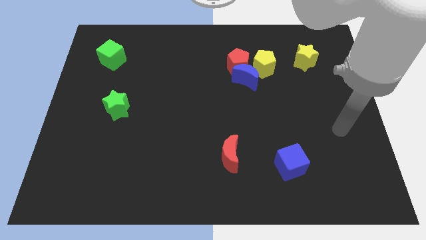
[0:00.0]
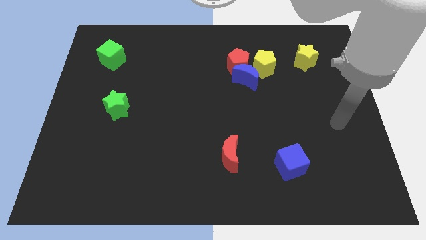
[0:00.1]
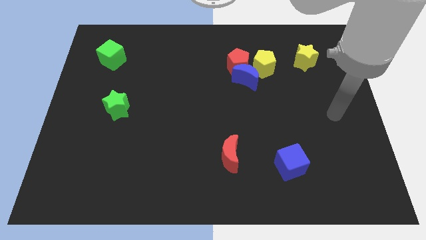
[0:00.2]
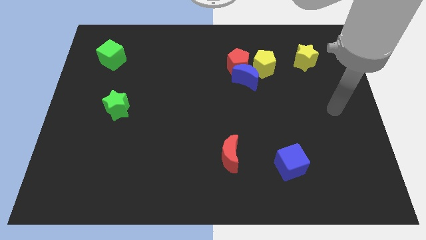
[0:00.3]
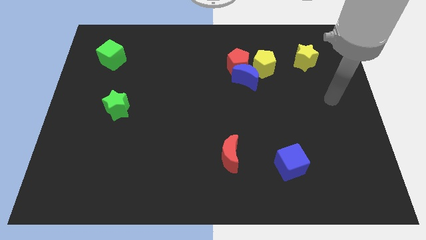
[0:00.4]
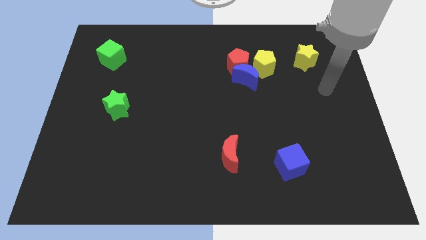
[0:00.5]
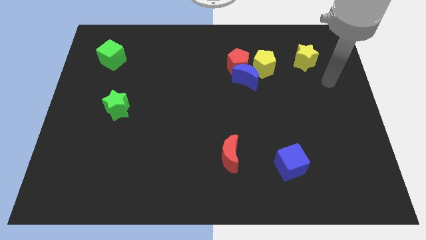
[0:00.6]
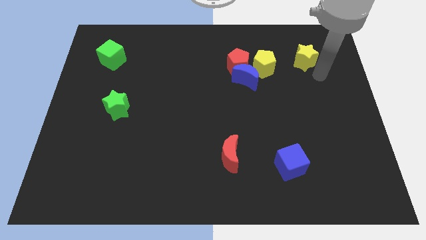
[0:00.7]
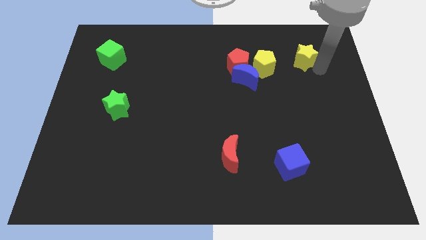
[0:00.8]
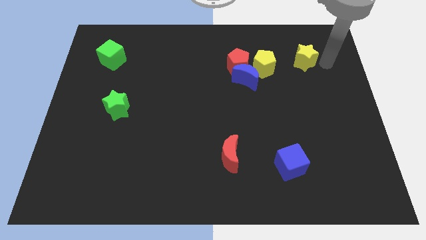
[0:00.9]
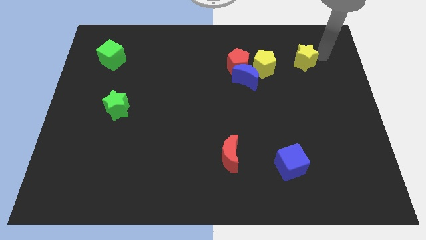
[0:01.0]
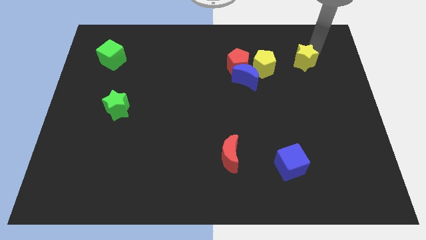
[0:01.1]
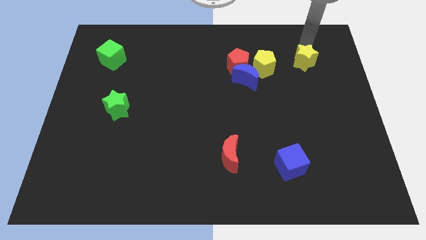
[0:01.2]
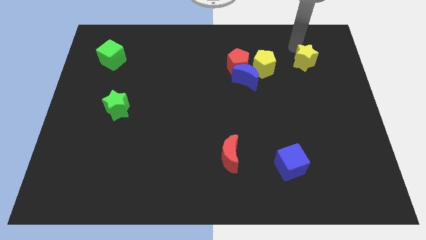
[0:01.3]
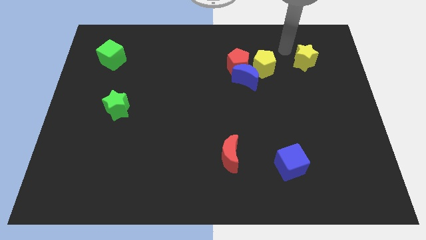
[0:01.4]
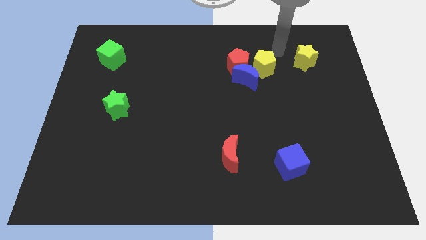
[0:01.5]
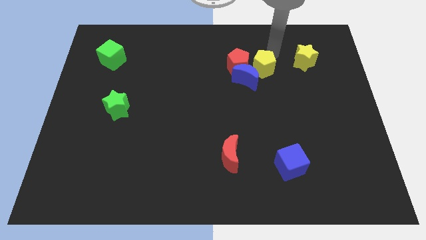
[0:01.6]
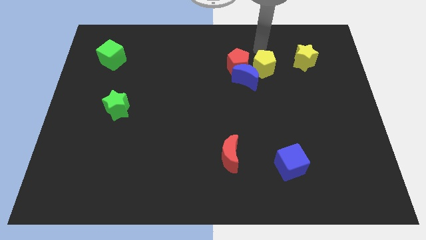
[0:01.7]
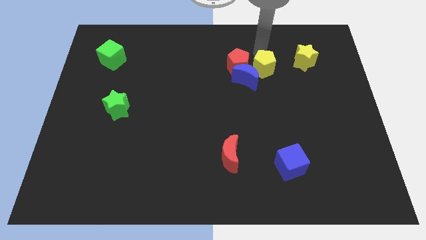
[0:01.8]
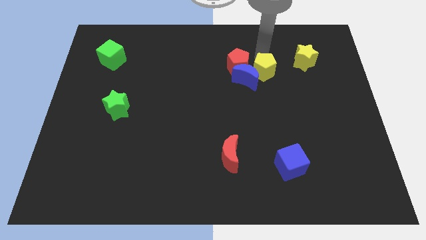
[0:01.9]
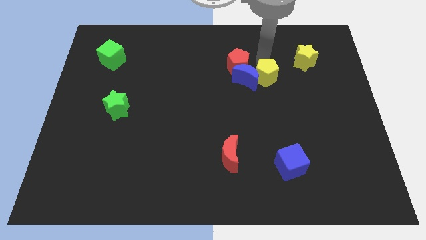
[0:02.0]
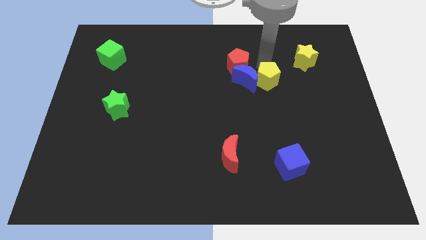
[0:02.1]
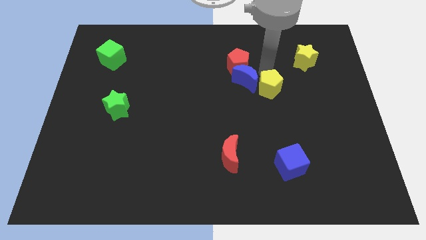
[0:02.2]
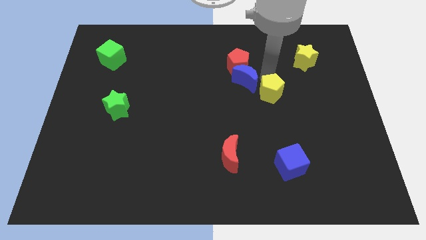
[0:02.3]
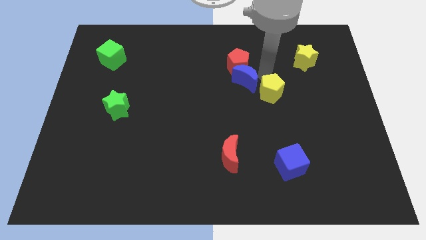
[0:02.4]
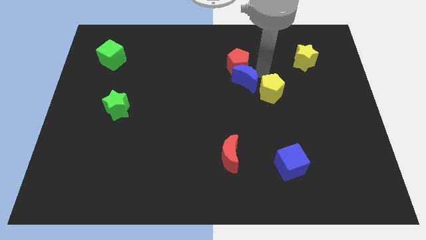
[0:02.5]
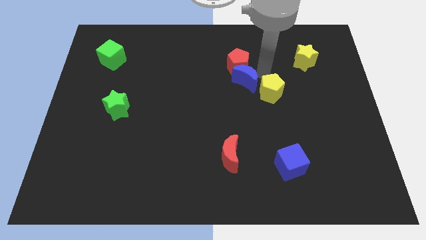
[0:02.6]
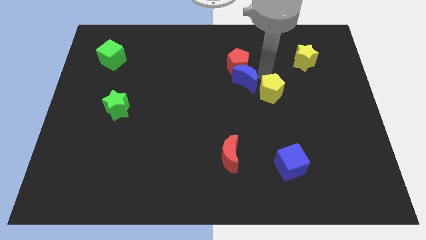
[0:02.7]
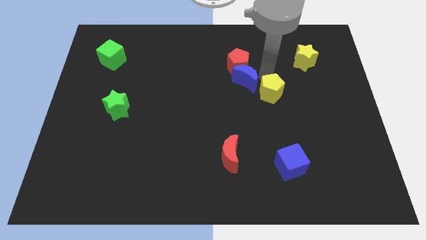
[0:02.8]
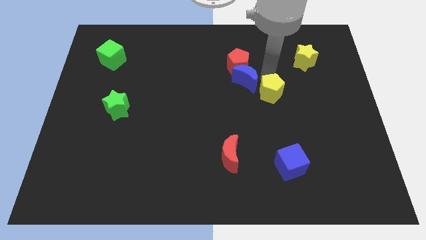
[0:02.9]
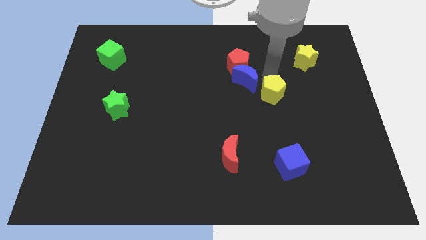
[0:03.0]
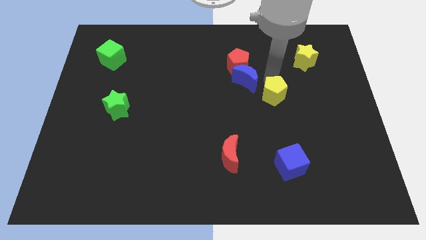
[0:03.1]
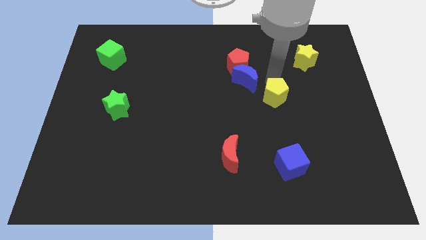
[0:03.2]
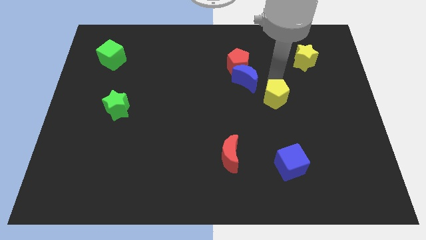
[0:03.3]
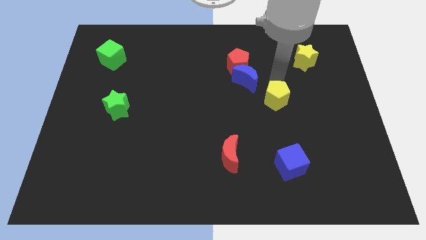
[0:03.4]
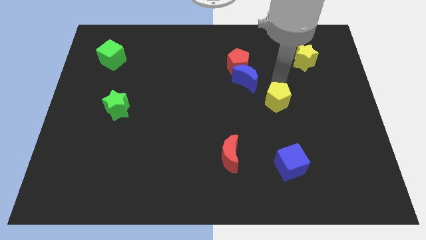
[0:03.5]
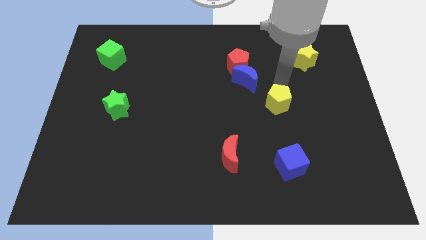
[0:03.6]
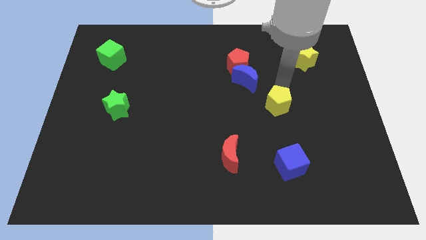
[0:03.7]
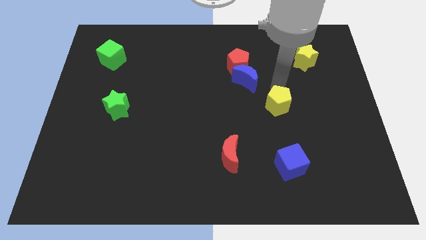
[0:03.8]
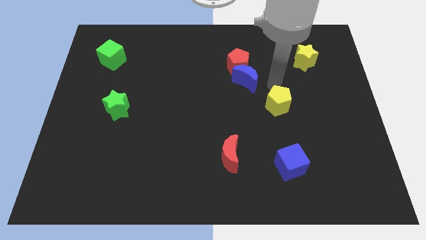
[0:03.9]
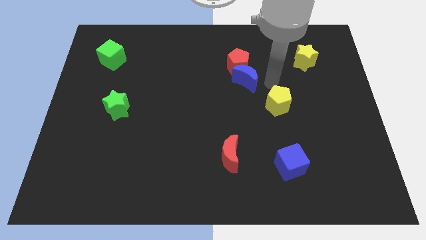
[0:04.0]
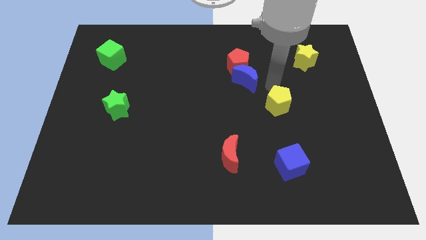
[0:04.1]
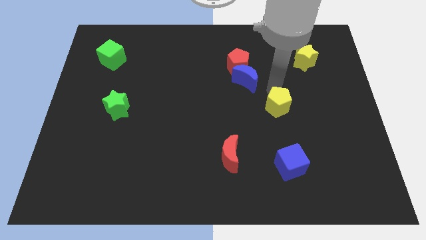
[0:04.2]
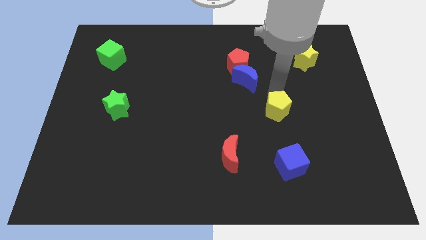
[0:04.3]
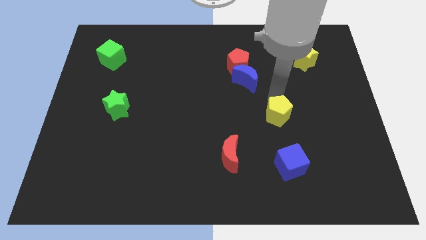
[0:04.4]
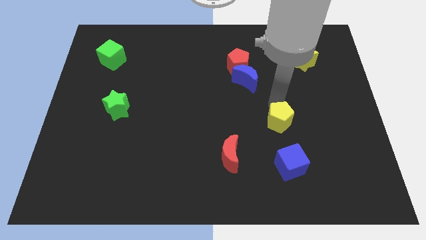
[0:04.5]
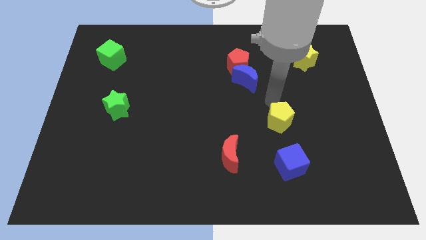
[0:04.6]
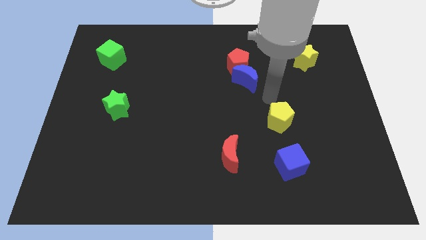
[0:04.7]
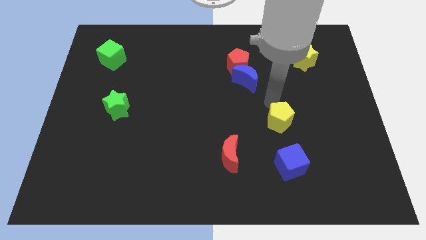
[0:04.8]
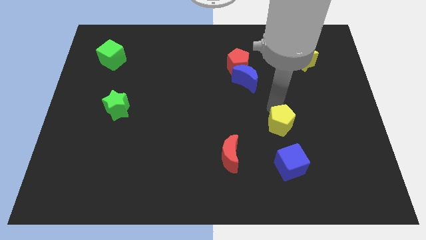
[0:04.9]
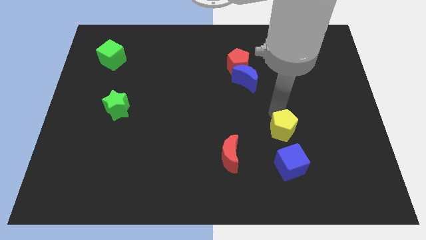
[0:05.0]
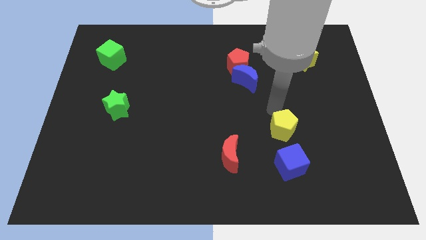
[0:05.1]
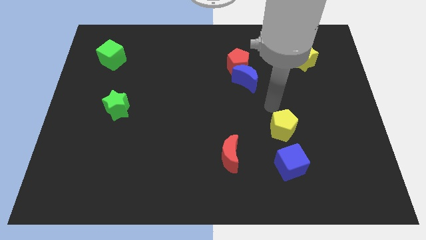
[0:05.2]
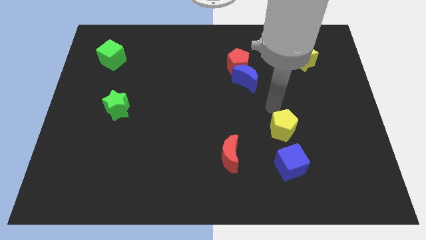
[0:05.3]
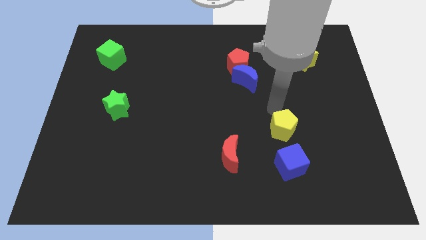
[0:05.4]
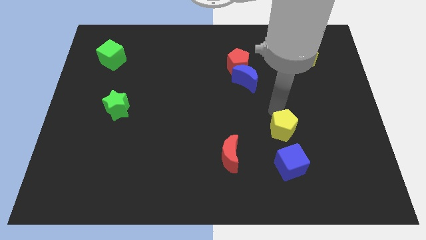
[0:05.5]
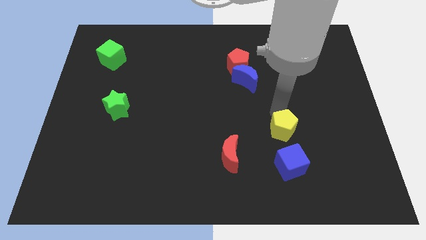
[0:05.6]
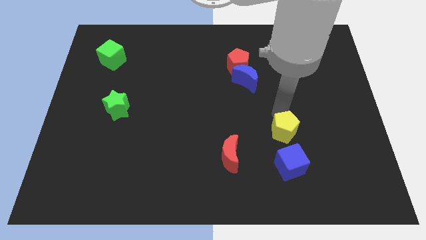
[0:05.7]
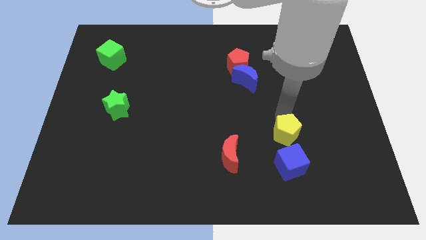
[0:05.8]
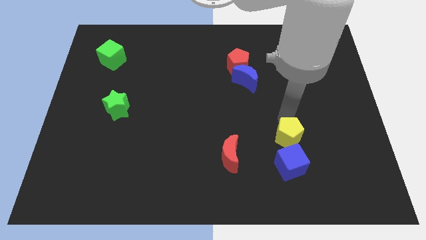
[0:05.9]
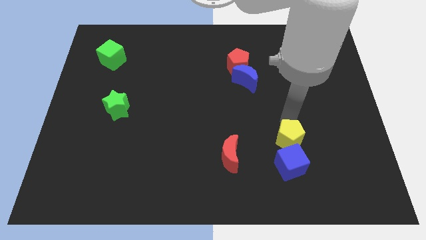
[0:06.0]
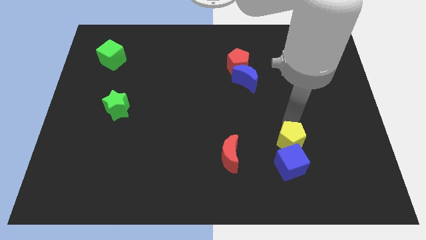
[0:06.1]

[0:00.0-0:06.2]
move the yellow pentagon next to the blue cube

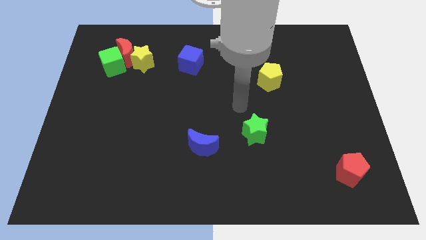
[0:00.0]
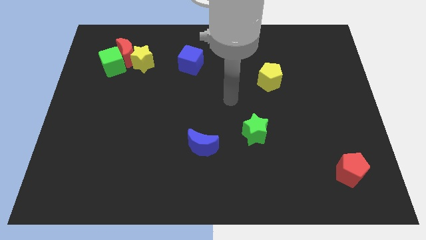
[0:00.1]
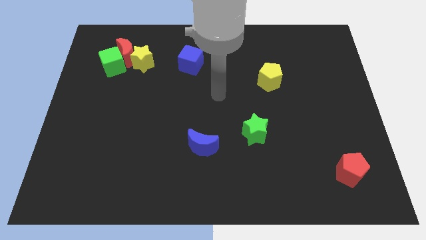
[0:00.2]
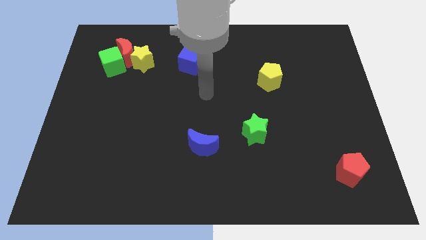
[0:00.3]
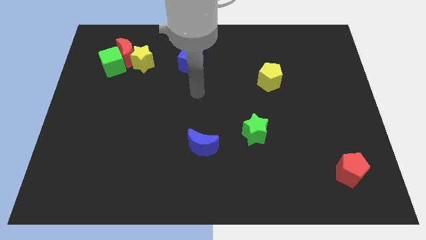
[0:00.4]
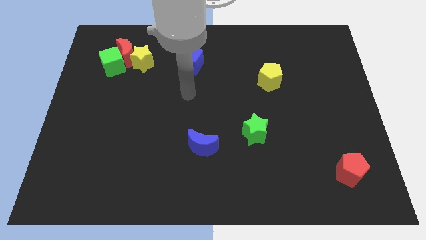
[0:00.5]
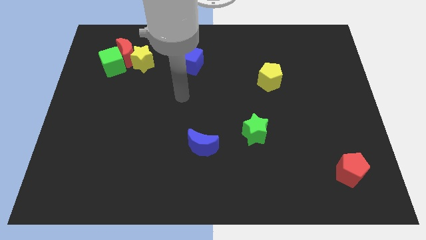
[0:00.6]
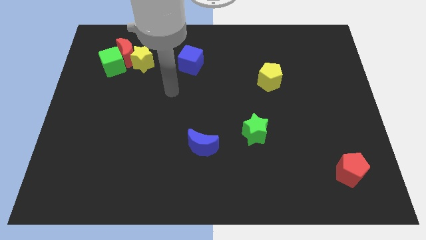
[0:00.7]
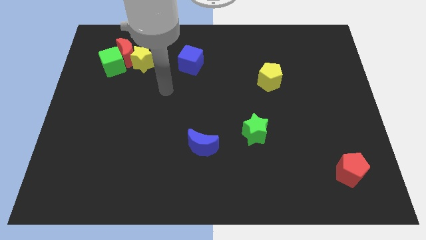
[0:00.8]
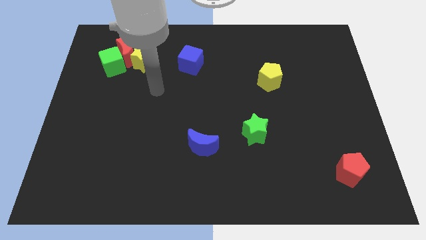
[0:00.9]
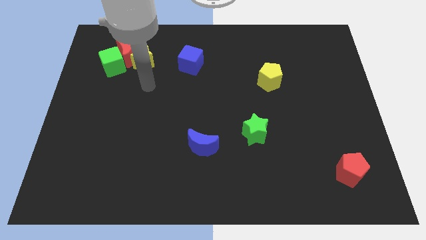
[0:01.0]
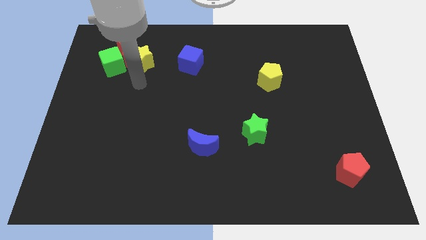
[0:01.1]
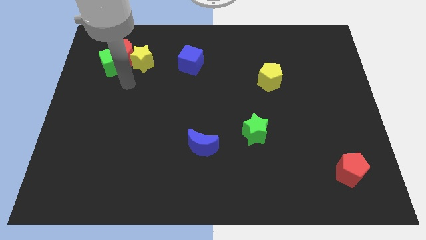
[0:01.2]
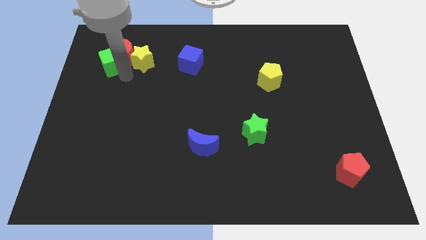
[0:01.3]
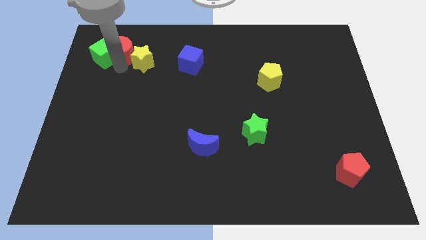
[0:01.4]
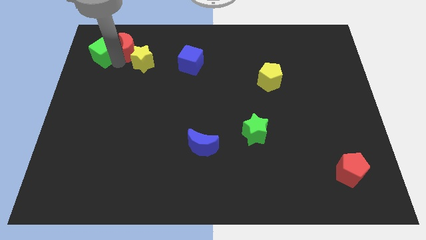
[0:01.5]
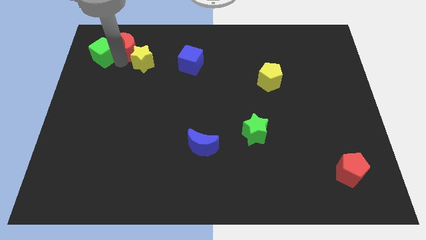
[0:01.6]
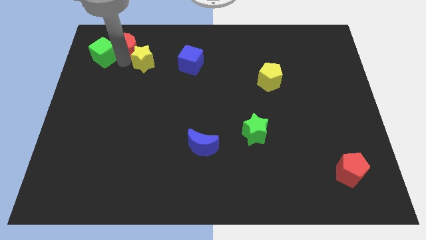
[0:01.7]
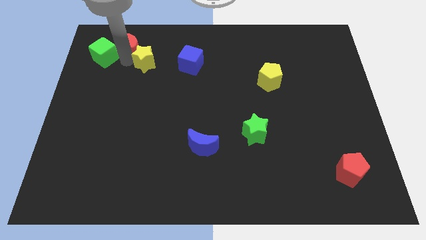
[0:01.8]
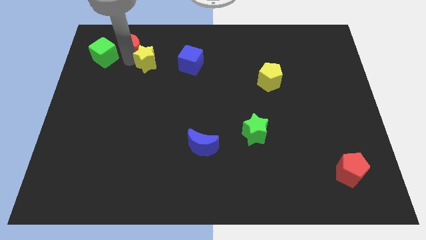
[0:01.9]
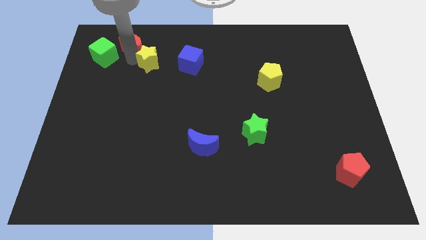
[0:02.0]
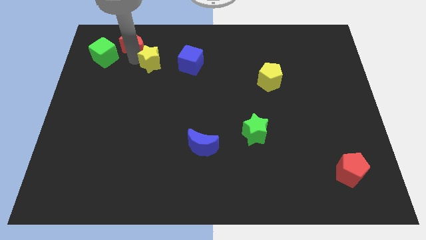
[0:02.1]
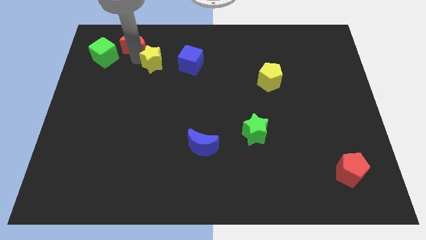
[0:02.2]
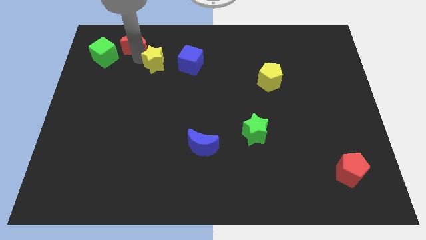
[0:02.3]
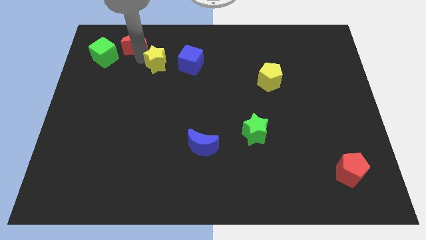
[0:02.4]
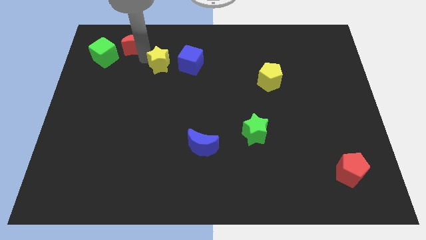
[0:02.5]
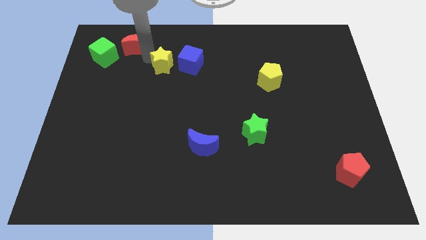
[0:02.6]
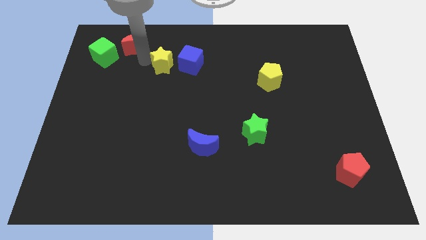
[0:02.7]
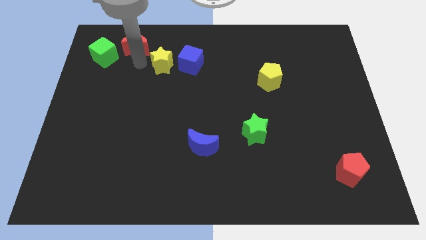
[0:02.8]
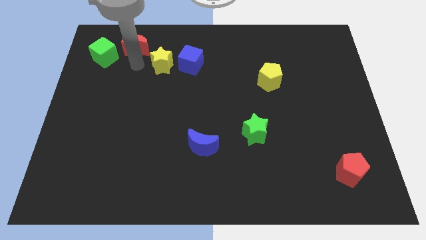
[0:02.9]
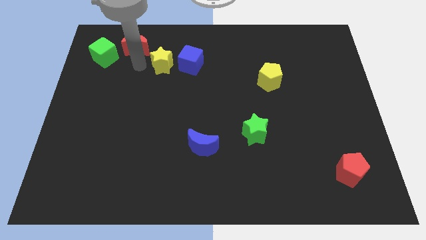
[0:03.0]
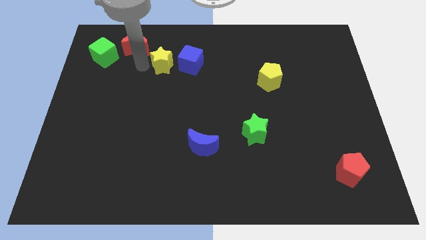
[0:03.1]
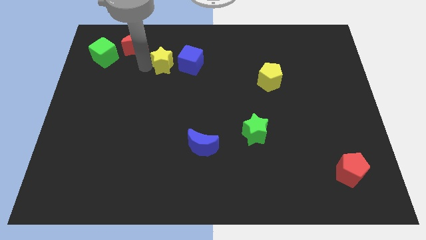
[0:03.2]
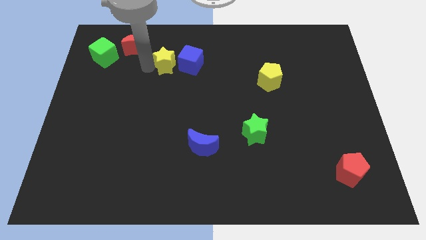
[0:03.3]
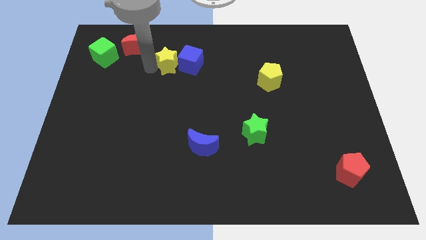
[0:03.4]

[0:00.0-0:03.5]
put the yellow star close to the blue cube
